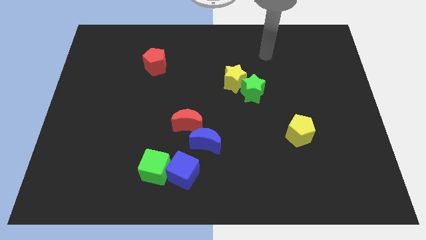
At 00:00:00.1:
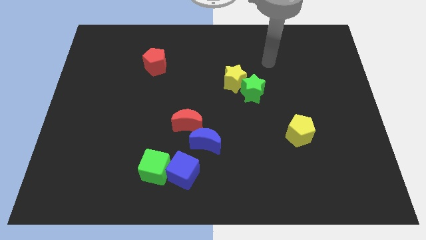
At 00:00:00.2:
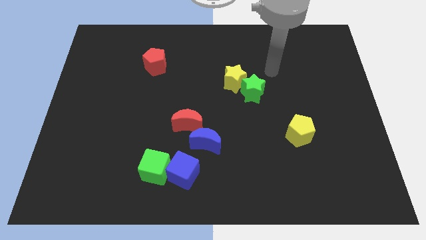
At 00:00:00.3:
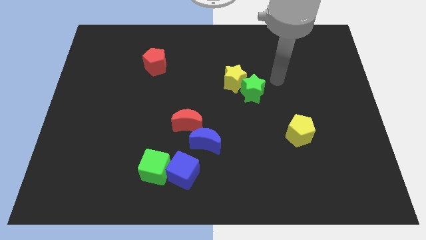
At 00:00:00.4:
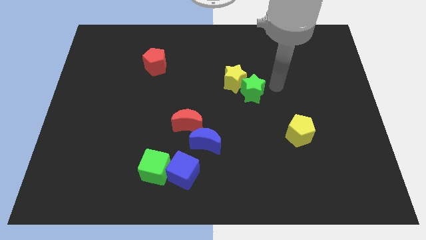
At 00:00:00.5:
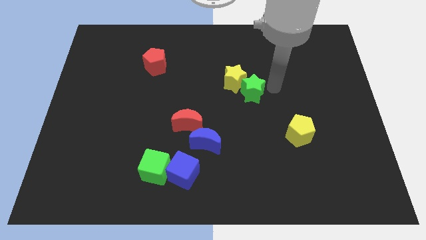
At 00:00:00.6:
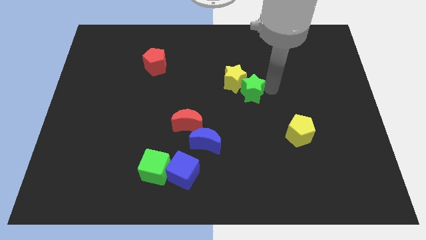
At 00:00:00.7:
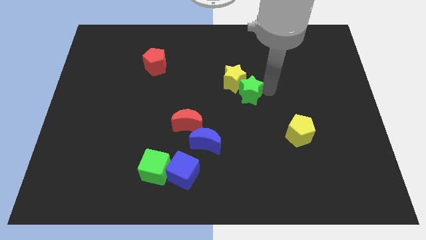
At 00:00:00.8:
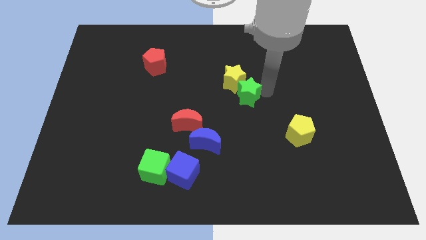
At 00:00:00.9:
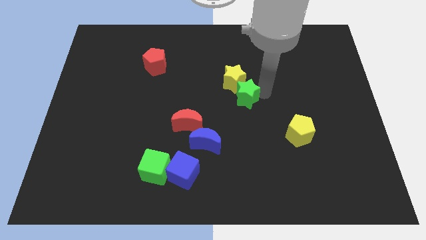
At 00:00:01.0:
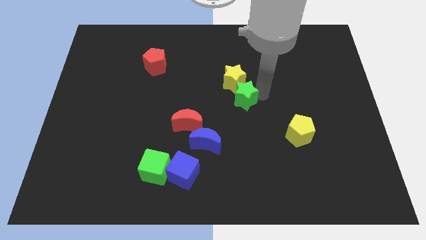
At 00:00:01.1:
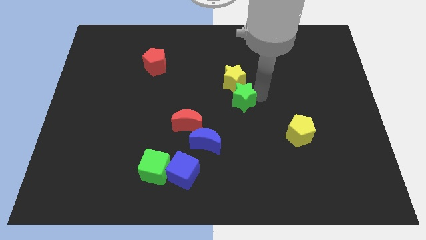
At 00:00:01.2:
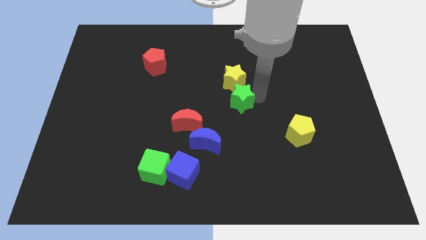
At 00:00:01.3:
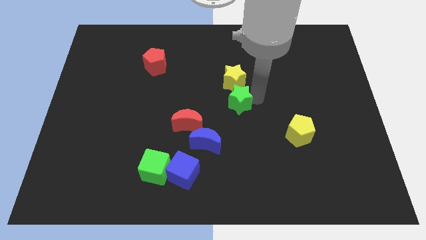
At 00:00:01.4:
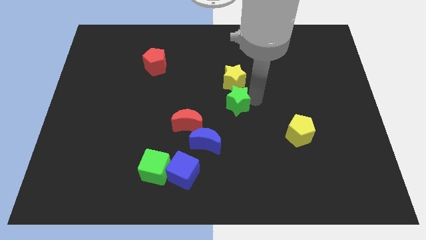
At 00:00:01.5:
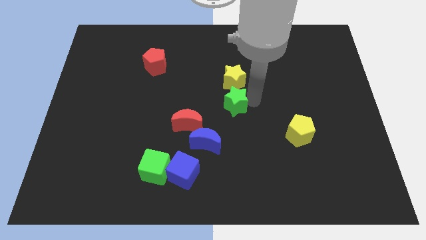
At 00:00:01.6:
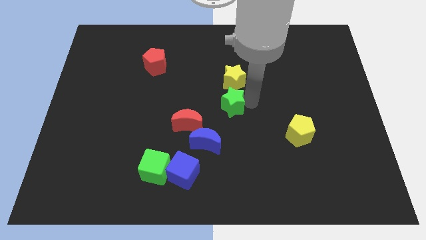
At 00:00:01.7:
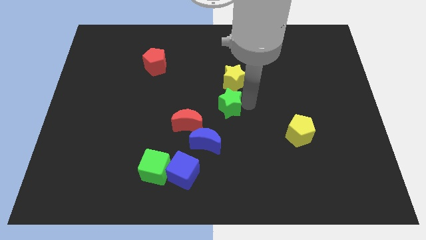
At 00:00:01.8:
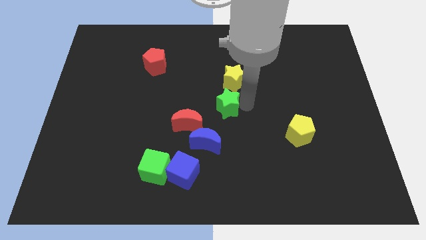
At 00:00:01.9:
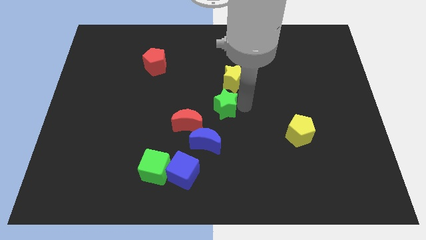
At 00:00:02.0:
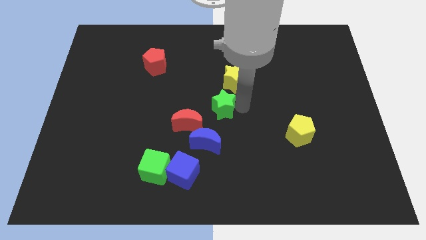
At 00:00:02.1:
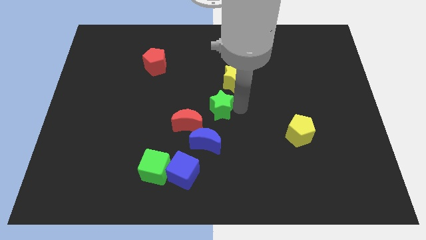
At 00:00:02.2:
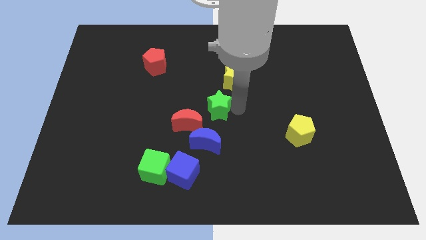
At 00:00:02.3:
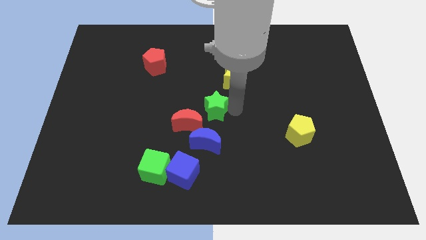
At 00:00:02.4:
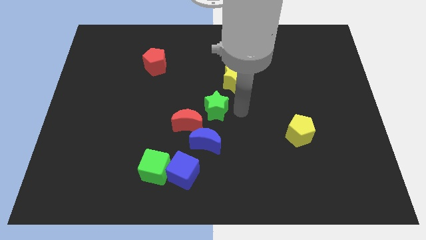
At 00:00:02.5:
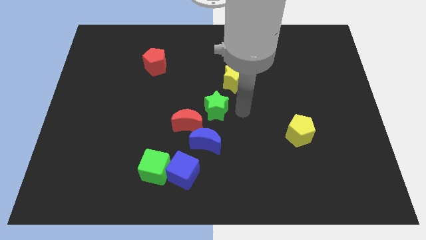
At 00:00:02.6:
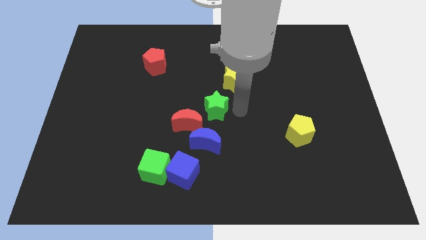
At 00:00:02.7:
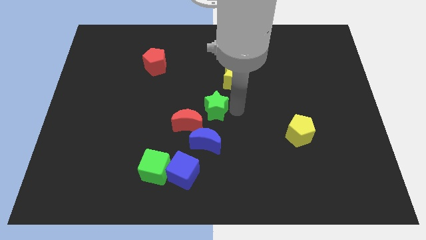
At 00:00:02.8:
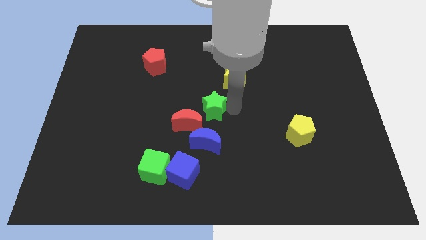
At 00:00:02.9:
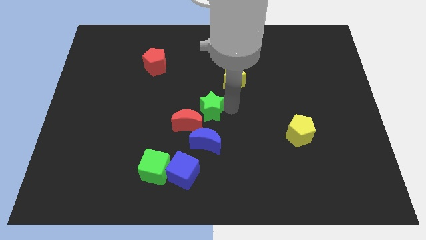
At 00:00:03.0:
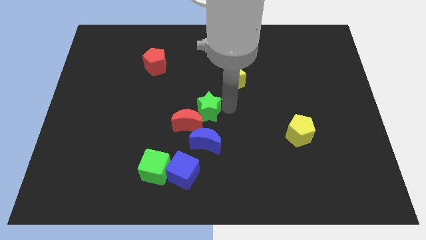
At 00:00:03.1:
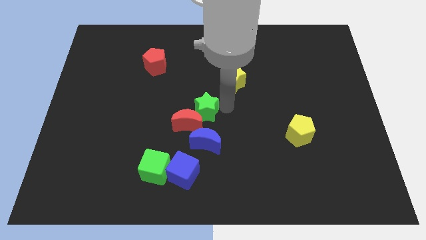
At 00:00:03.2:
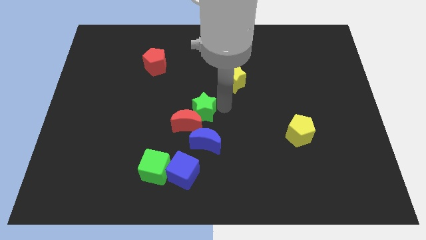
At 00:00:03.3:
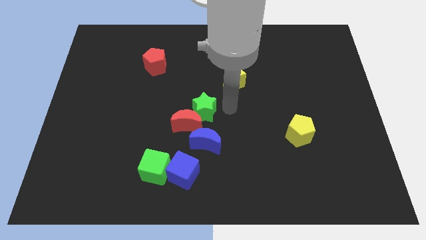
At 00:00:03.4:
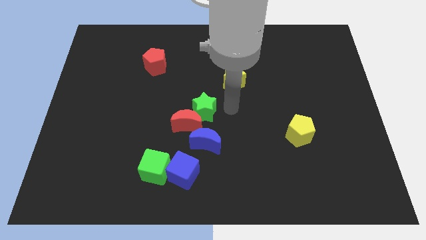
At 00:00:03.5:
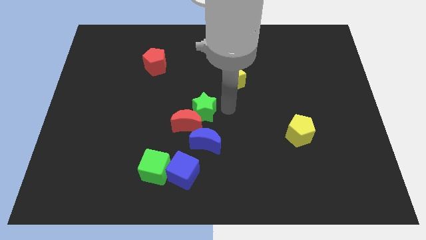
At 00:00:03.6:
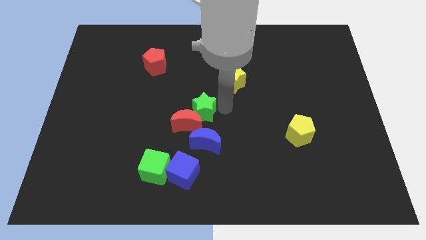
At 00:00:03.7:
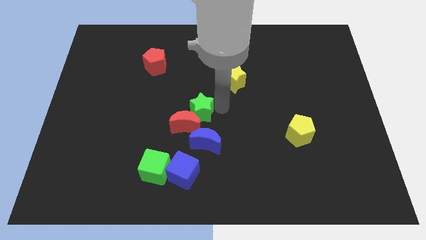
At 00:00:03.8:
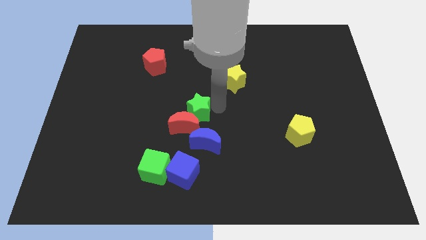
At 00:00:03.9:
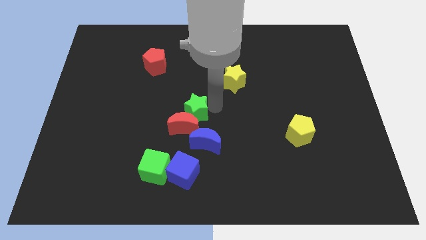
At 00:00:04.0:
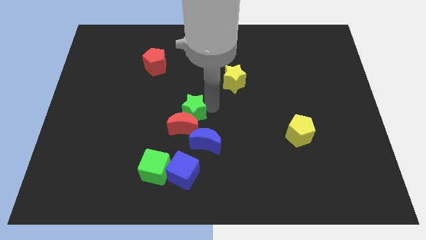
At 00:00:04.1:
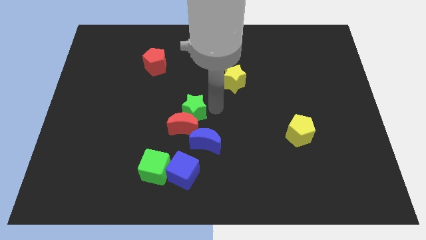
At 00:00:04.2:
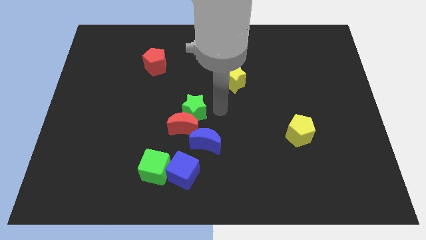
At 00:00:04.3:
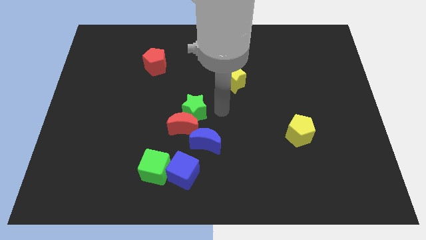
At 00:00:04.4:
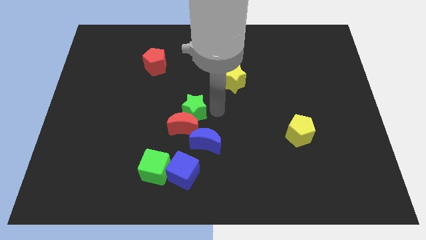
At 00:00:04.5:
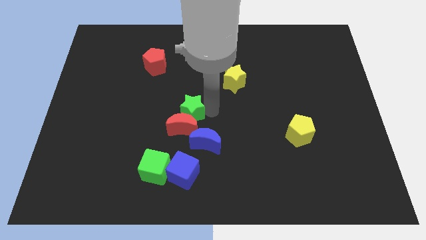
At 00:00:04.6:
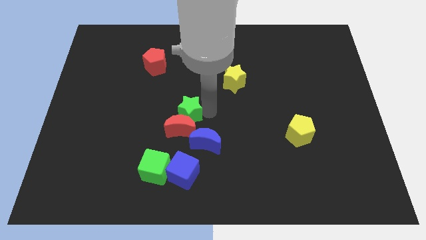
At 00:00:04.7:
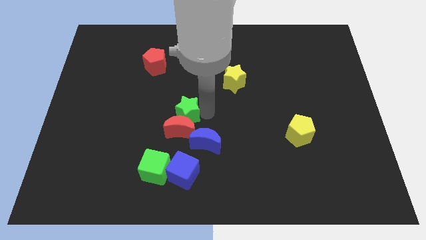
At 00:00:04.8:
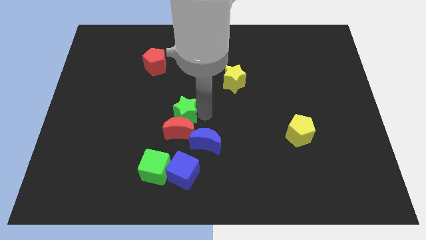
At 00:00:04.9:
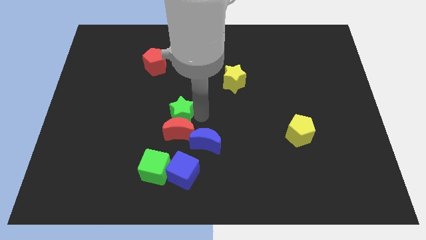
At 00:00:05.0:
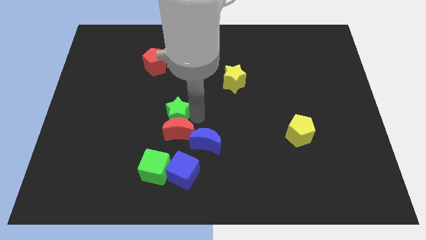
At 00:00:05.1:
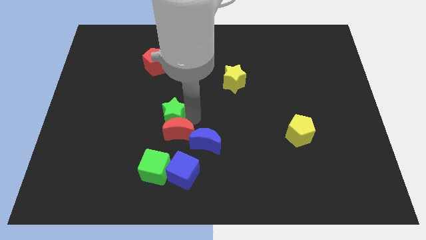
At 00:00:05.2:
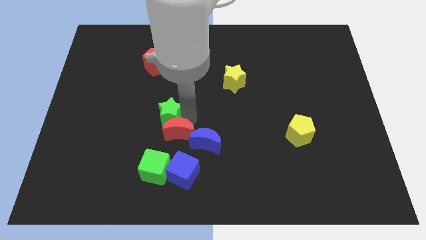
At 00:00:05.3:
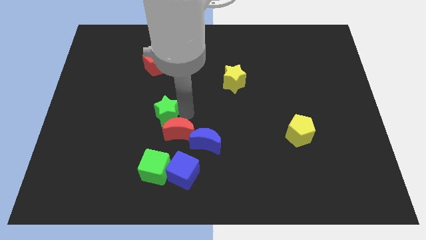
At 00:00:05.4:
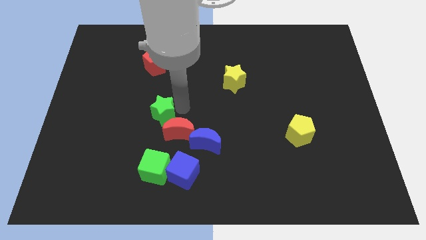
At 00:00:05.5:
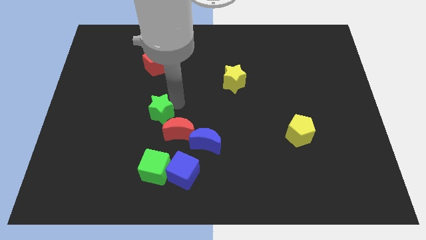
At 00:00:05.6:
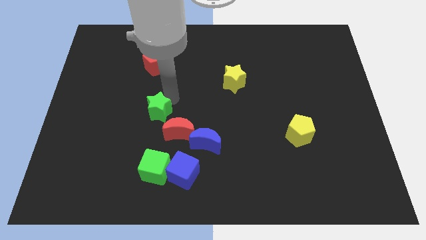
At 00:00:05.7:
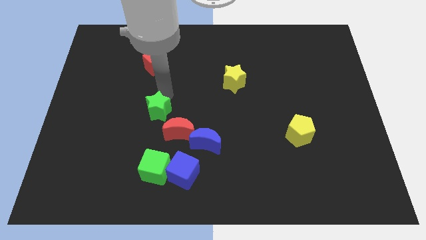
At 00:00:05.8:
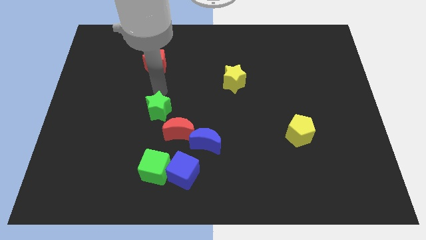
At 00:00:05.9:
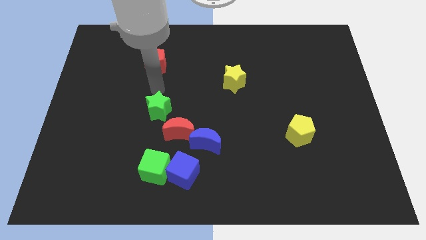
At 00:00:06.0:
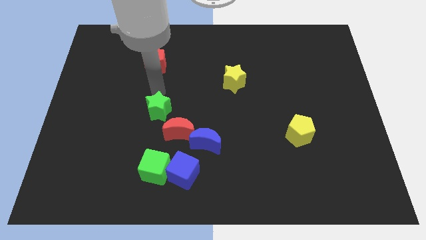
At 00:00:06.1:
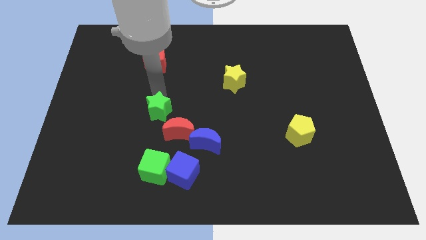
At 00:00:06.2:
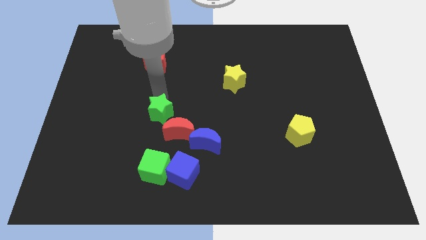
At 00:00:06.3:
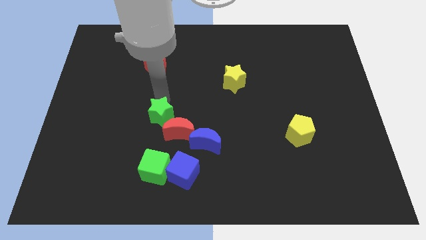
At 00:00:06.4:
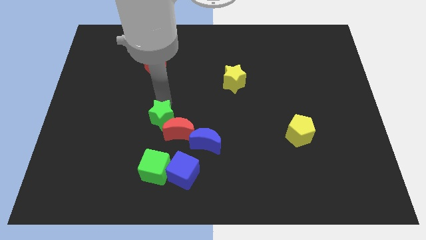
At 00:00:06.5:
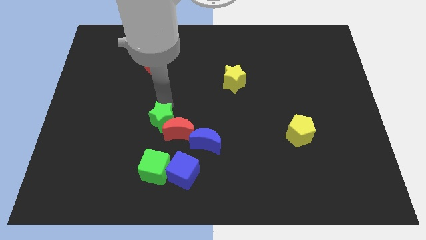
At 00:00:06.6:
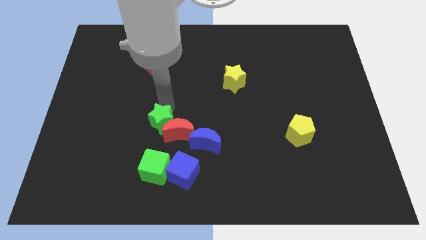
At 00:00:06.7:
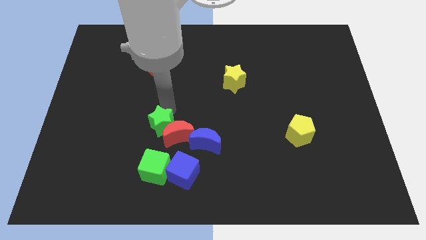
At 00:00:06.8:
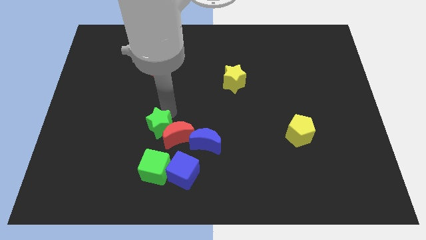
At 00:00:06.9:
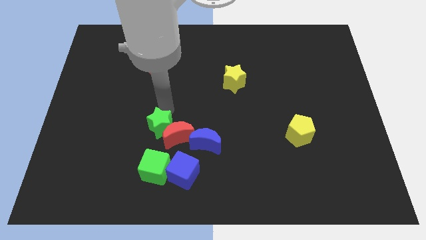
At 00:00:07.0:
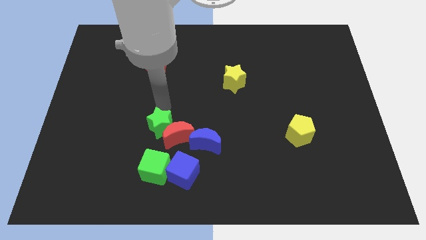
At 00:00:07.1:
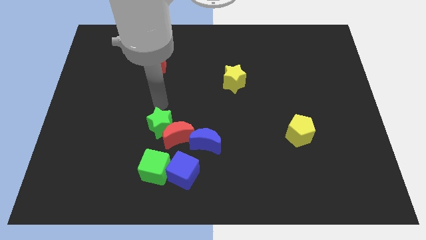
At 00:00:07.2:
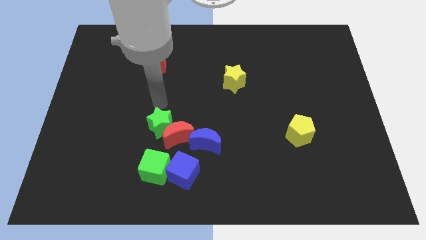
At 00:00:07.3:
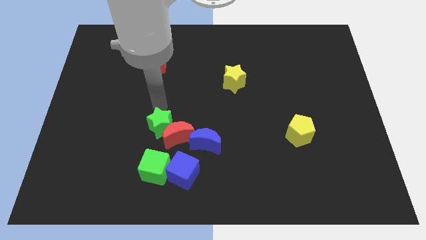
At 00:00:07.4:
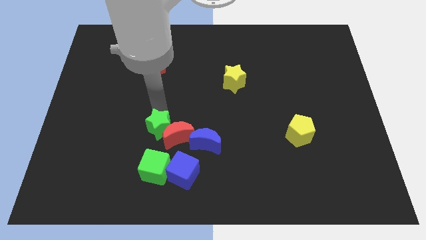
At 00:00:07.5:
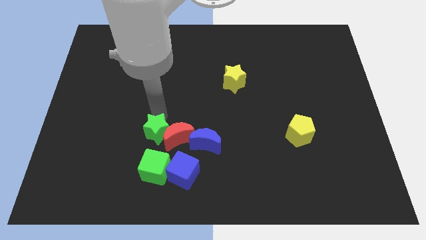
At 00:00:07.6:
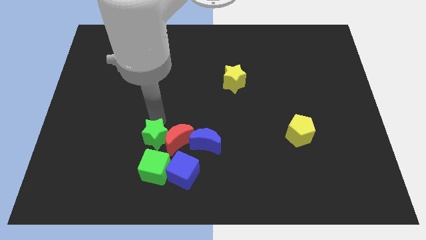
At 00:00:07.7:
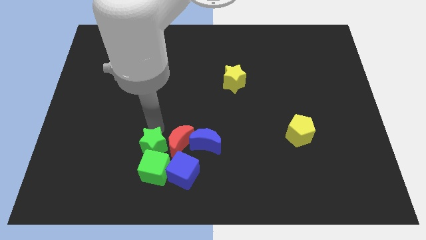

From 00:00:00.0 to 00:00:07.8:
move the green star towards the green cube
